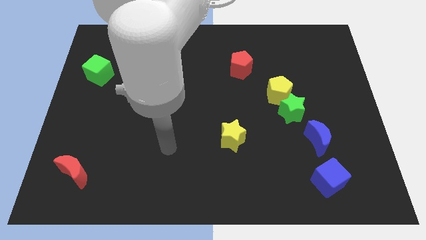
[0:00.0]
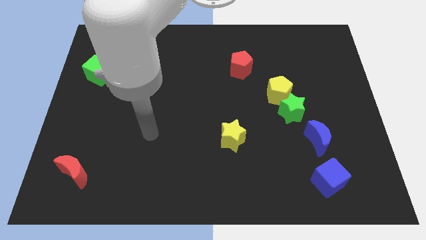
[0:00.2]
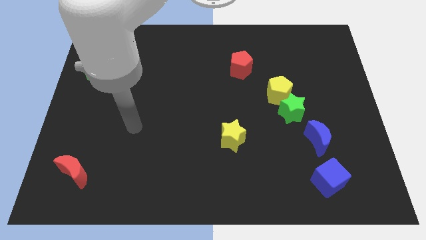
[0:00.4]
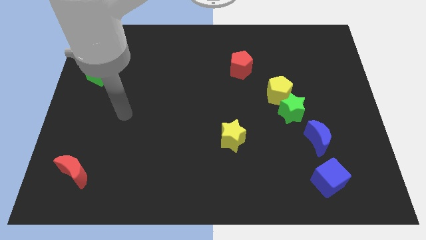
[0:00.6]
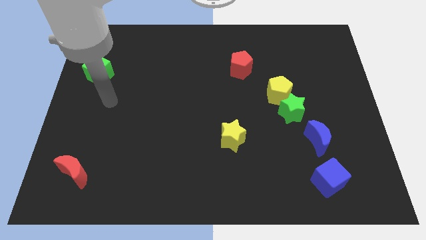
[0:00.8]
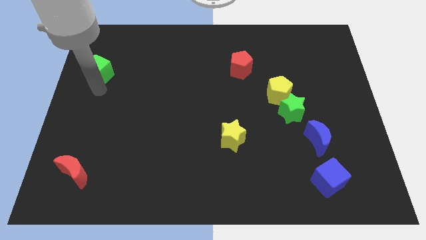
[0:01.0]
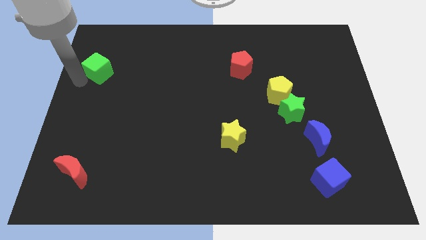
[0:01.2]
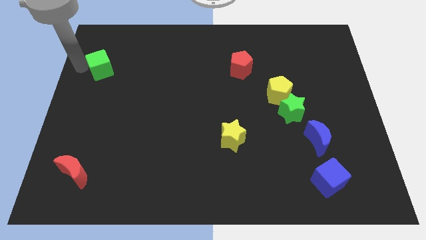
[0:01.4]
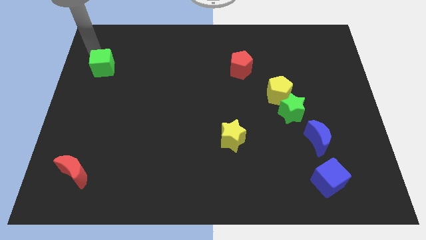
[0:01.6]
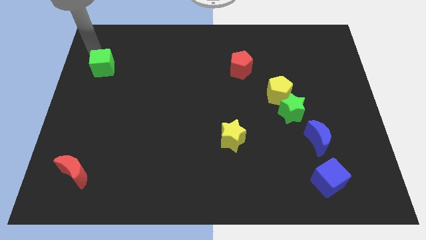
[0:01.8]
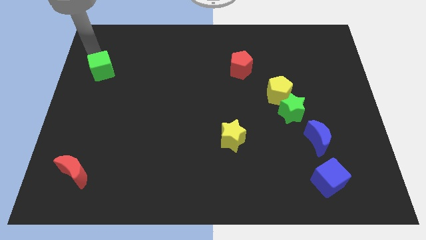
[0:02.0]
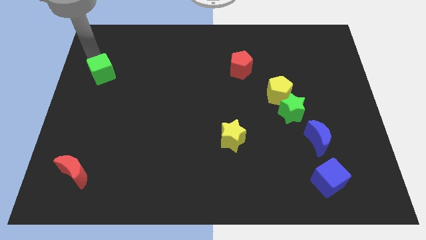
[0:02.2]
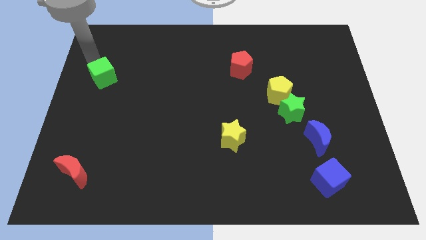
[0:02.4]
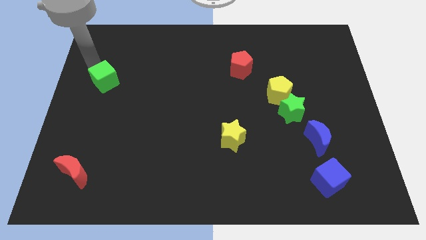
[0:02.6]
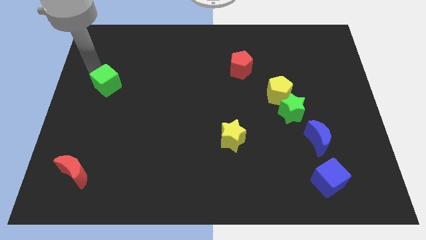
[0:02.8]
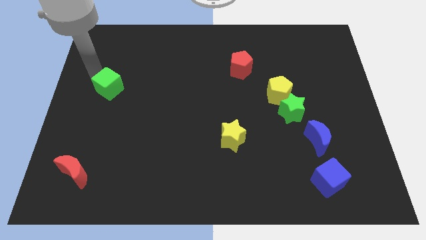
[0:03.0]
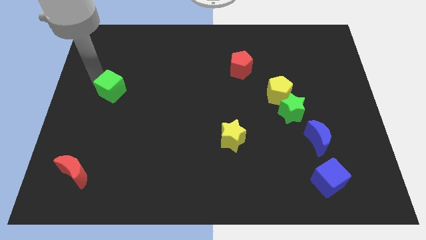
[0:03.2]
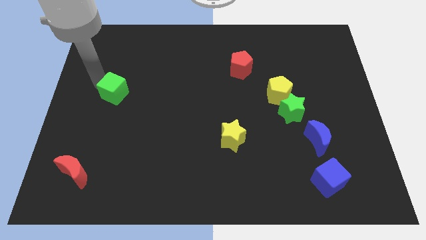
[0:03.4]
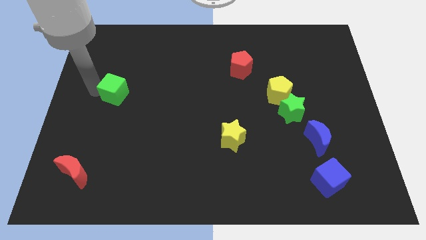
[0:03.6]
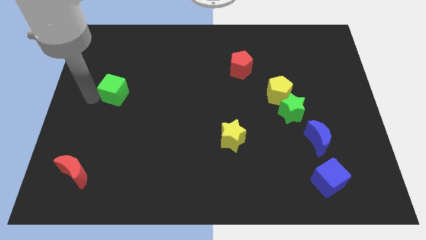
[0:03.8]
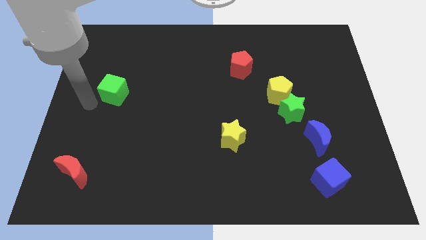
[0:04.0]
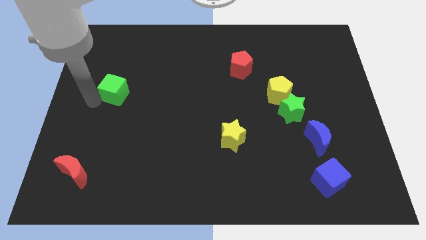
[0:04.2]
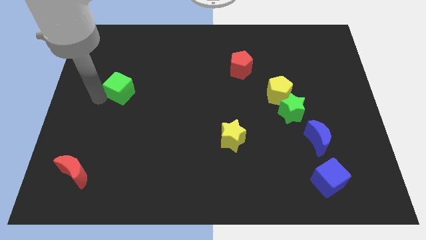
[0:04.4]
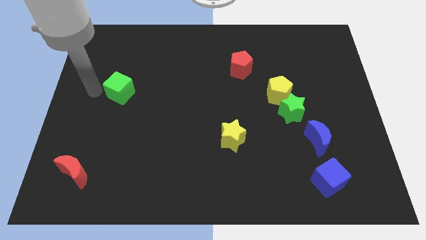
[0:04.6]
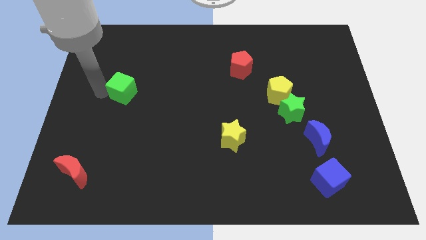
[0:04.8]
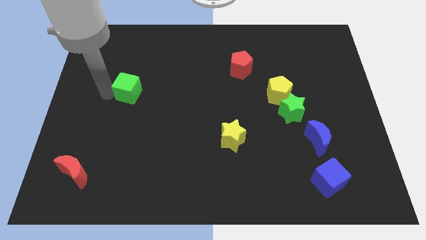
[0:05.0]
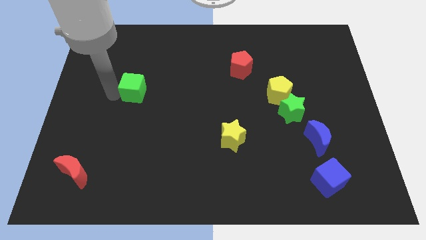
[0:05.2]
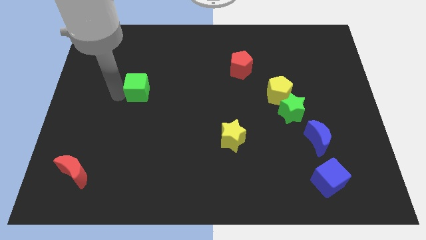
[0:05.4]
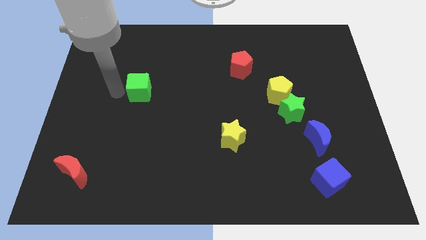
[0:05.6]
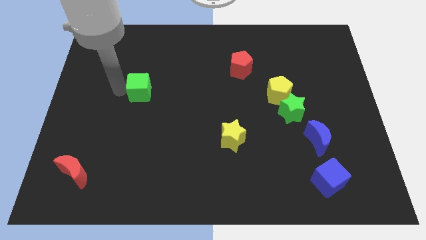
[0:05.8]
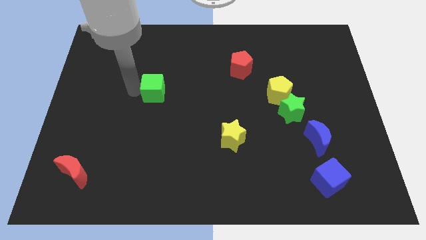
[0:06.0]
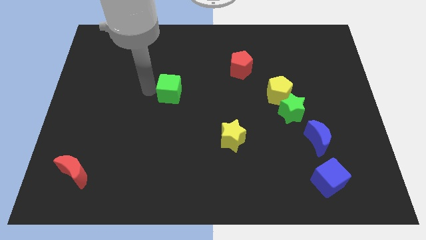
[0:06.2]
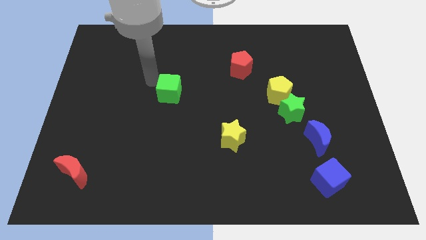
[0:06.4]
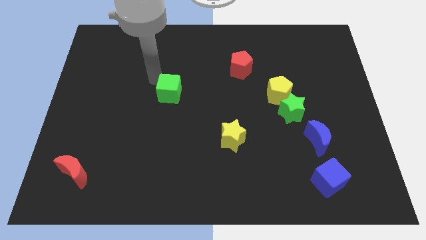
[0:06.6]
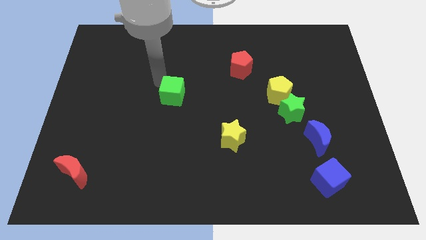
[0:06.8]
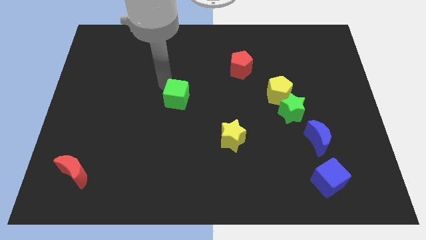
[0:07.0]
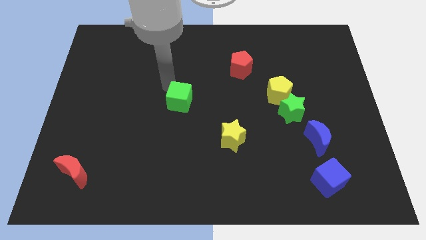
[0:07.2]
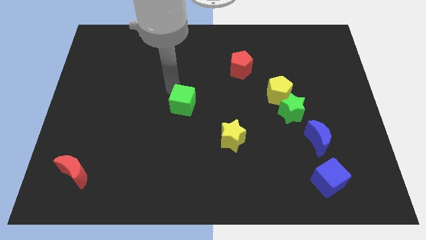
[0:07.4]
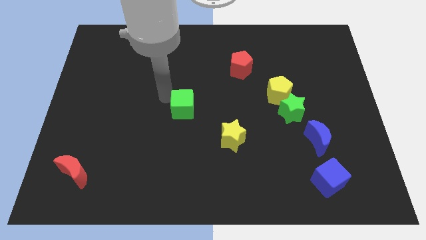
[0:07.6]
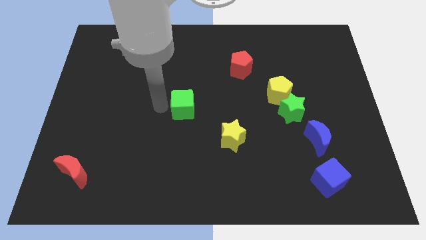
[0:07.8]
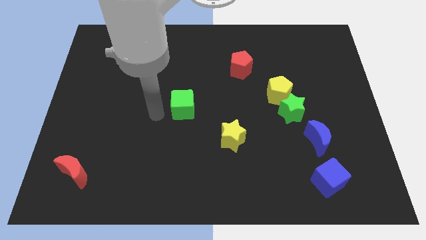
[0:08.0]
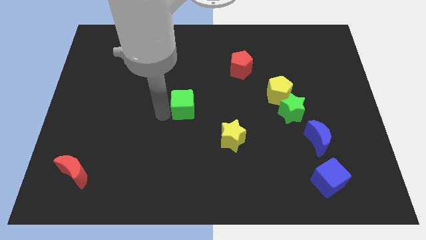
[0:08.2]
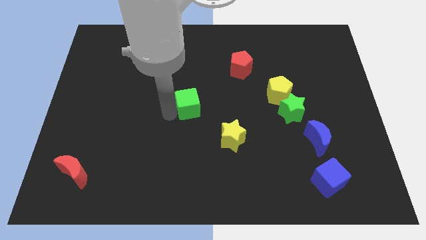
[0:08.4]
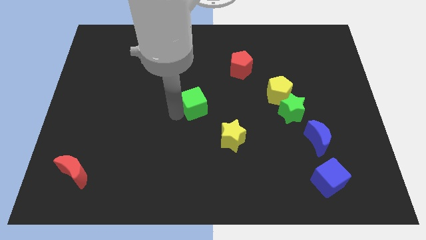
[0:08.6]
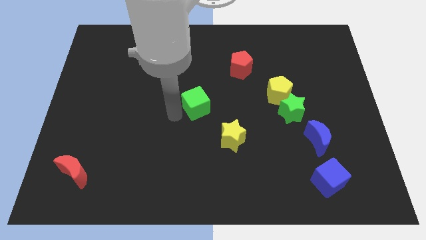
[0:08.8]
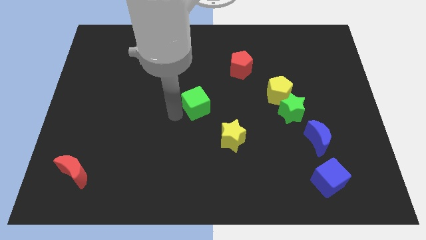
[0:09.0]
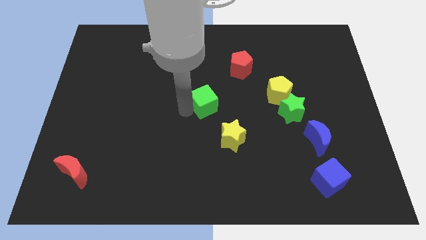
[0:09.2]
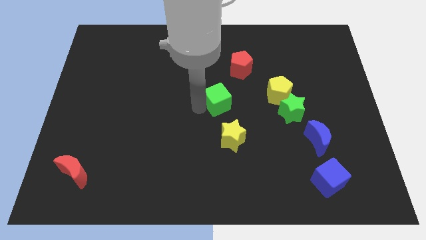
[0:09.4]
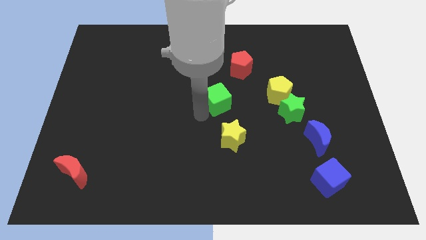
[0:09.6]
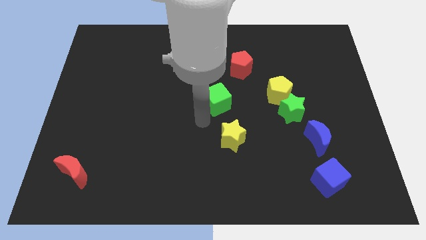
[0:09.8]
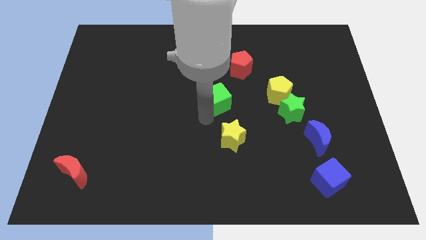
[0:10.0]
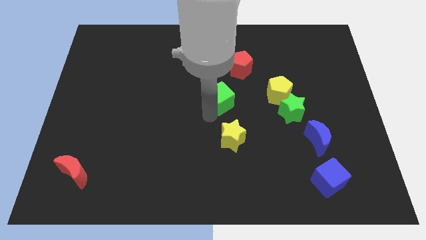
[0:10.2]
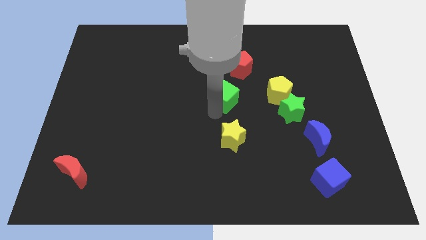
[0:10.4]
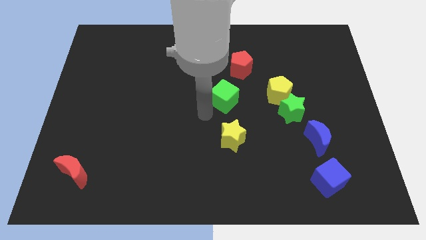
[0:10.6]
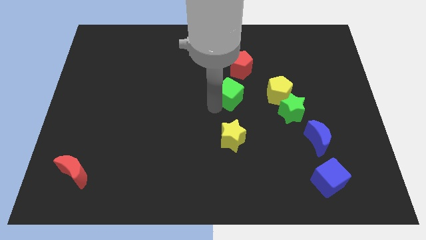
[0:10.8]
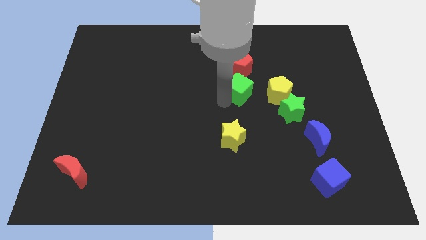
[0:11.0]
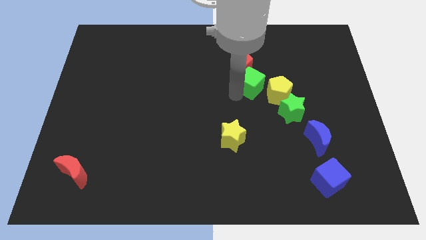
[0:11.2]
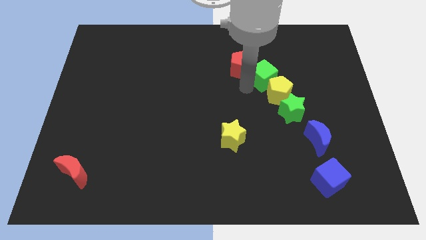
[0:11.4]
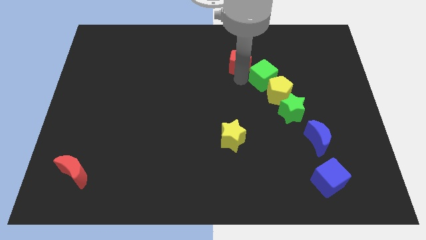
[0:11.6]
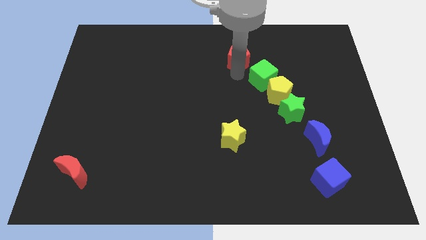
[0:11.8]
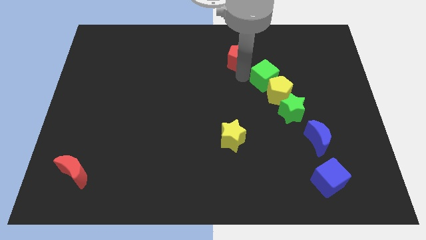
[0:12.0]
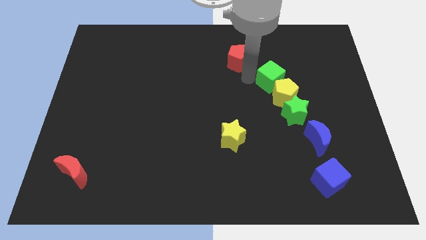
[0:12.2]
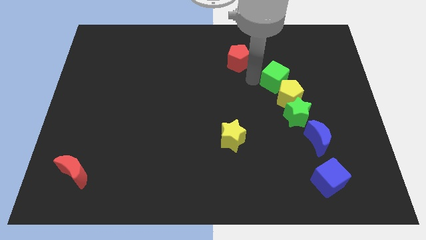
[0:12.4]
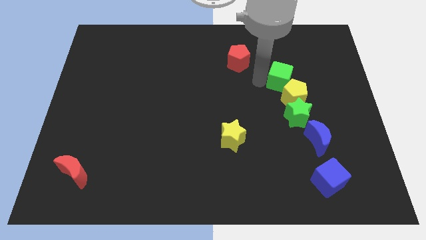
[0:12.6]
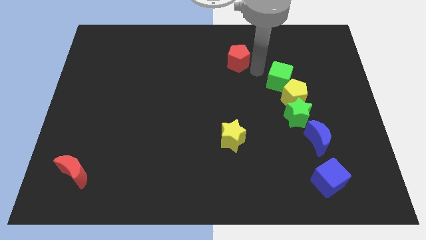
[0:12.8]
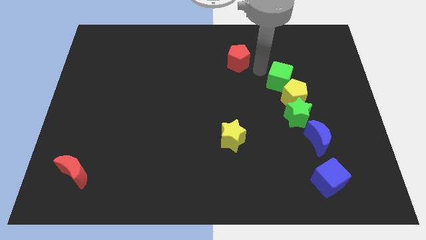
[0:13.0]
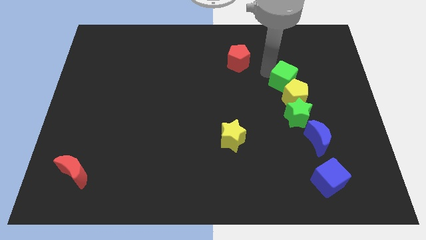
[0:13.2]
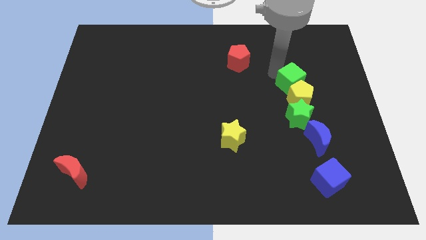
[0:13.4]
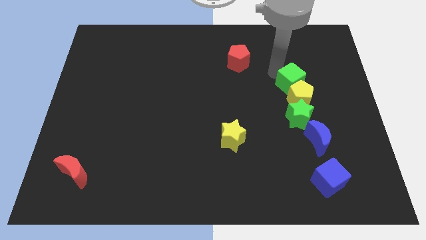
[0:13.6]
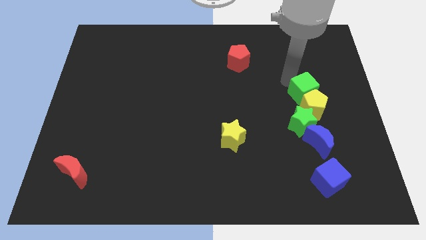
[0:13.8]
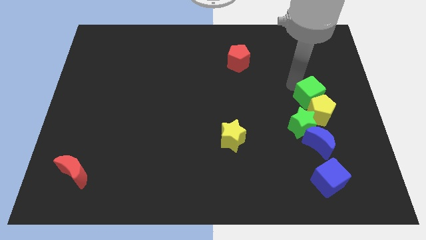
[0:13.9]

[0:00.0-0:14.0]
move the green cube diagonally up and to the right of the green star

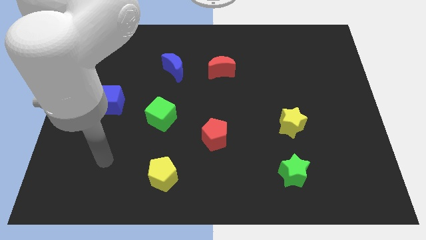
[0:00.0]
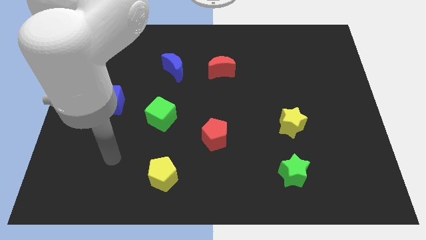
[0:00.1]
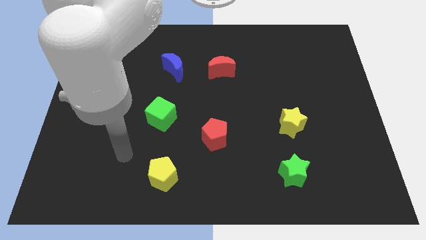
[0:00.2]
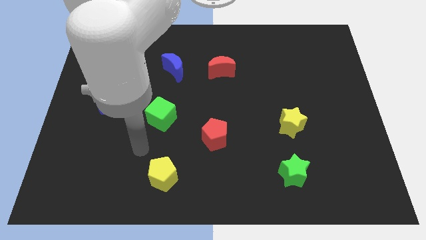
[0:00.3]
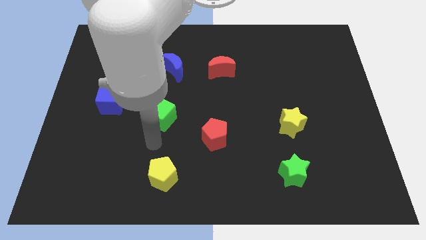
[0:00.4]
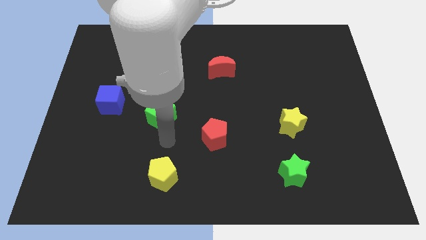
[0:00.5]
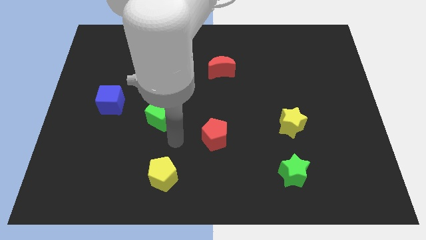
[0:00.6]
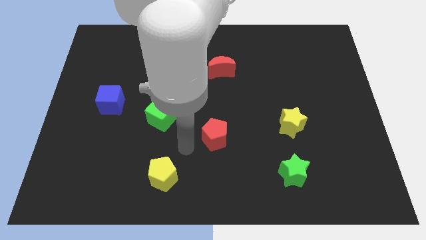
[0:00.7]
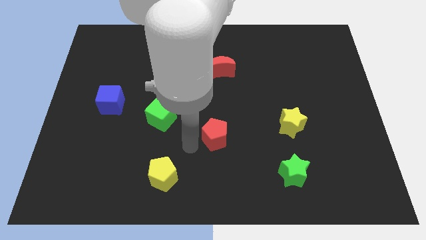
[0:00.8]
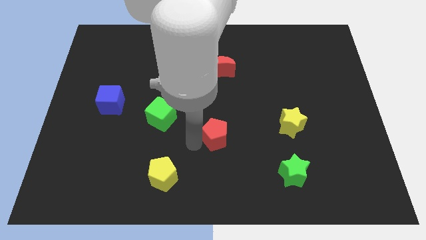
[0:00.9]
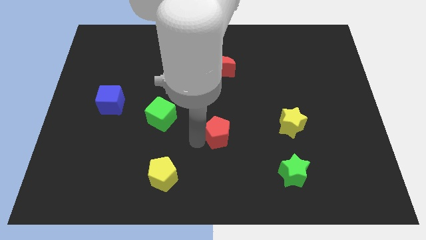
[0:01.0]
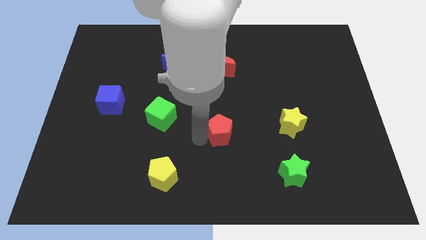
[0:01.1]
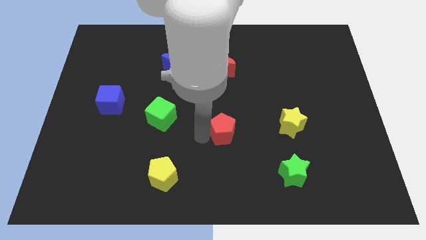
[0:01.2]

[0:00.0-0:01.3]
move the red pentagon to the left of the yellow star
